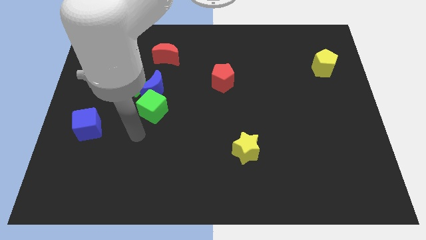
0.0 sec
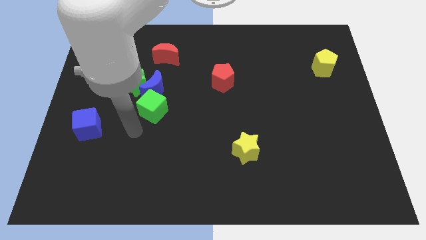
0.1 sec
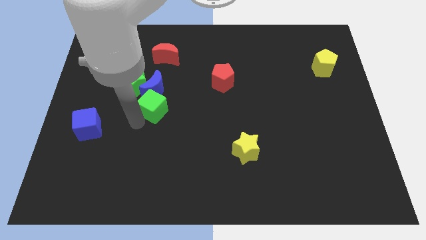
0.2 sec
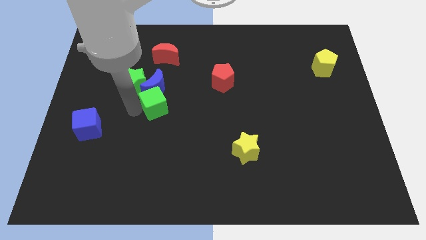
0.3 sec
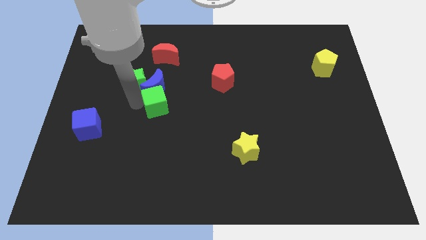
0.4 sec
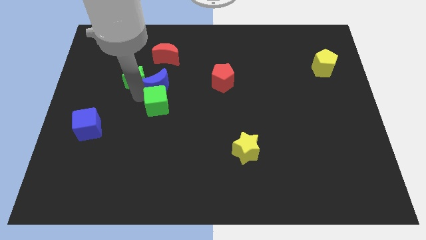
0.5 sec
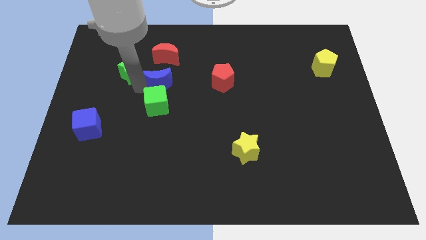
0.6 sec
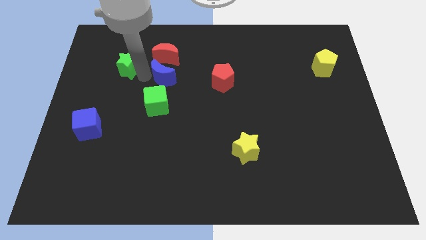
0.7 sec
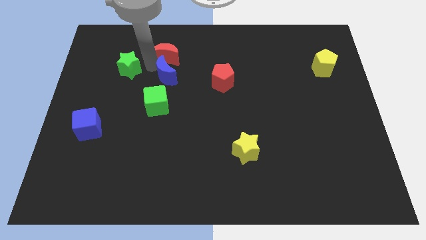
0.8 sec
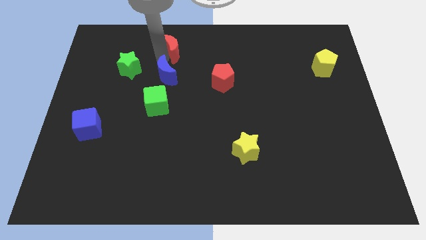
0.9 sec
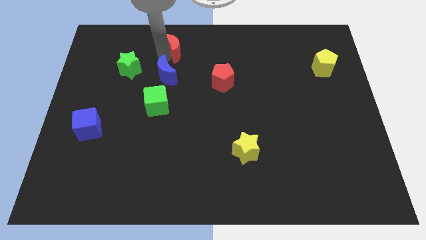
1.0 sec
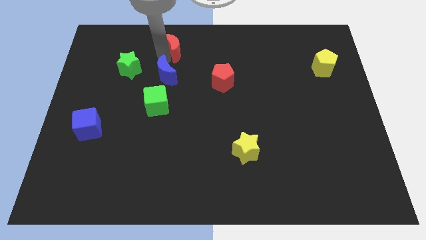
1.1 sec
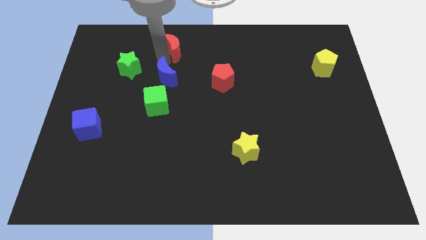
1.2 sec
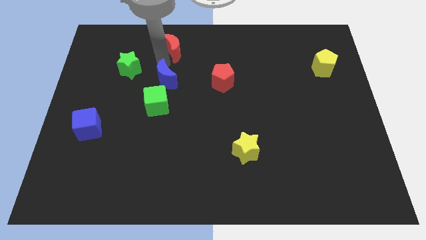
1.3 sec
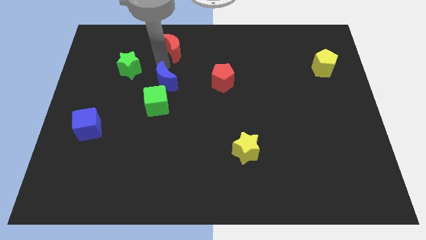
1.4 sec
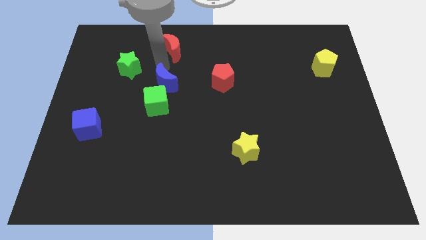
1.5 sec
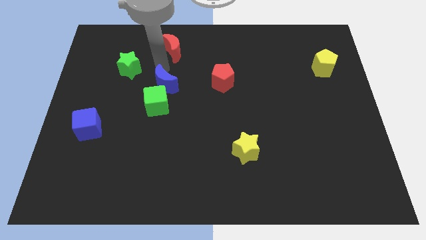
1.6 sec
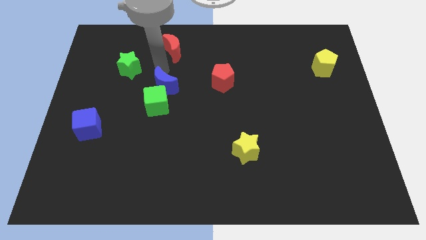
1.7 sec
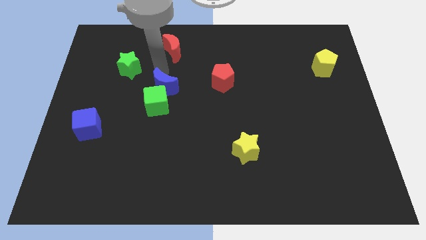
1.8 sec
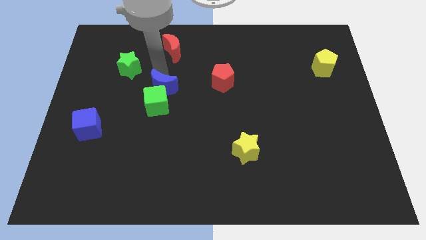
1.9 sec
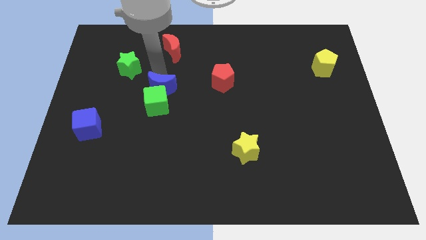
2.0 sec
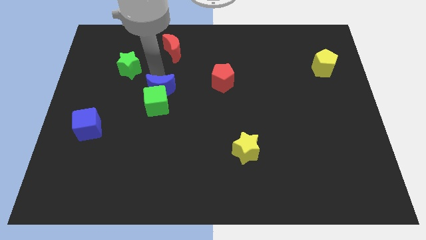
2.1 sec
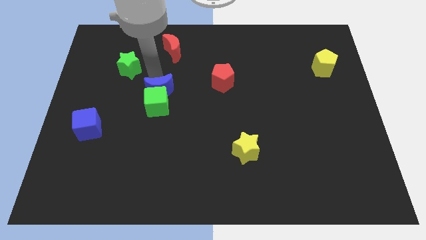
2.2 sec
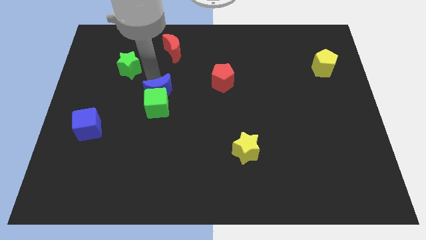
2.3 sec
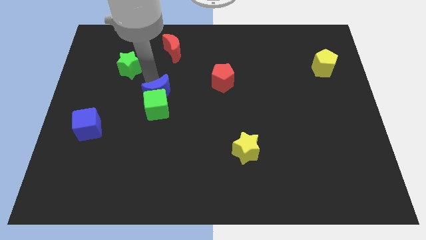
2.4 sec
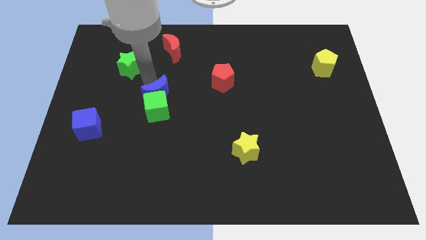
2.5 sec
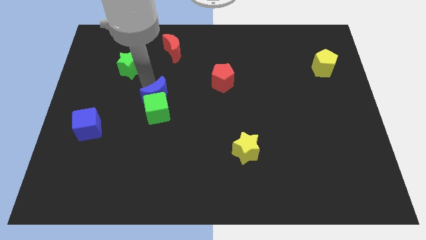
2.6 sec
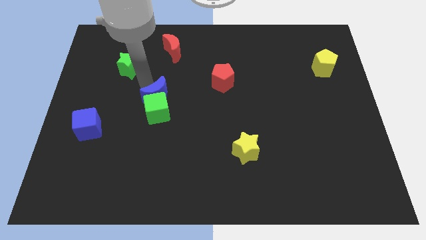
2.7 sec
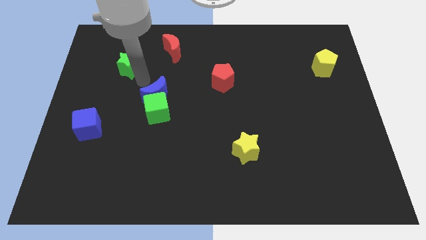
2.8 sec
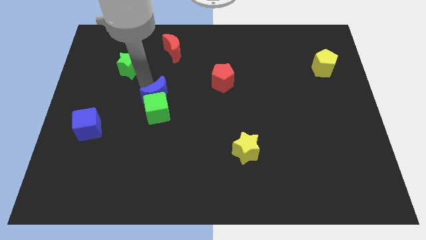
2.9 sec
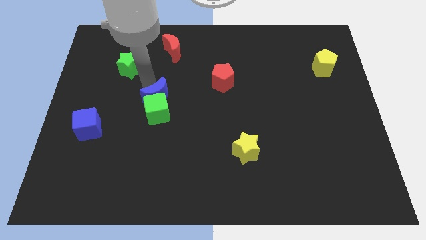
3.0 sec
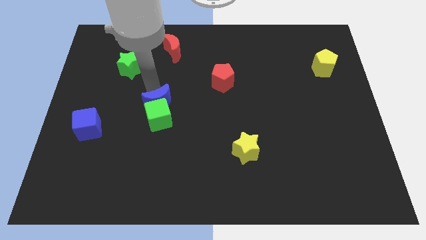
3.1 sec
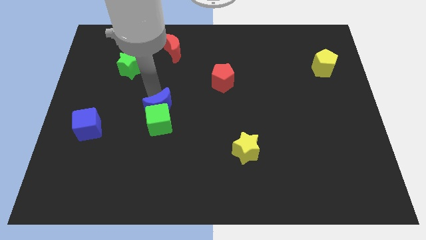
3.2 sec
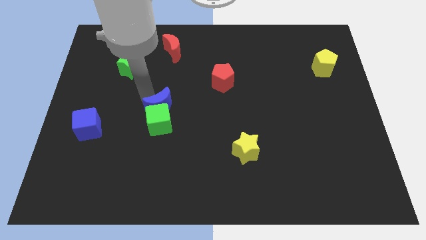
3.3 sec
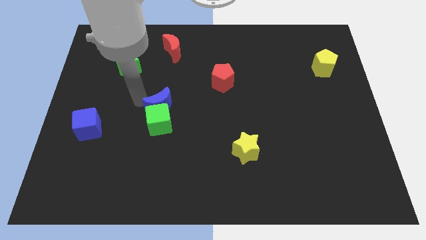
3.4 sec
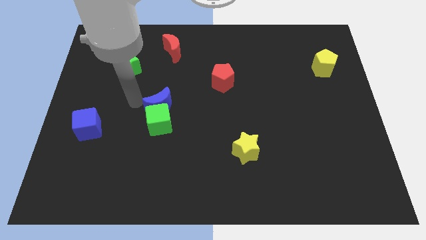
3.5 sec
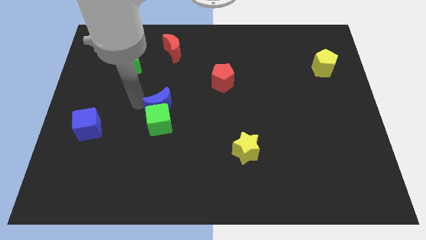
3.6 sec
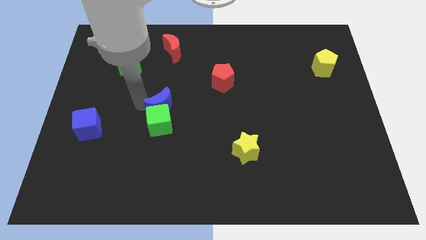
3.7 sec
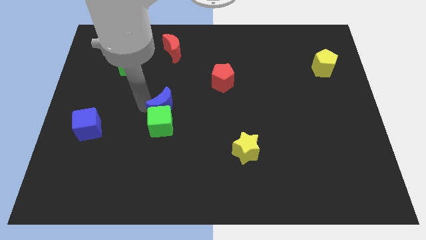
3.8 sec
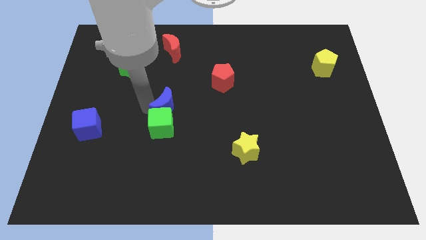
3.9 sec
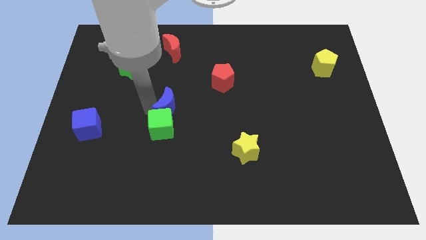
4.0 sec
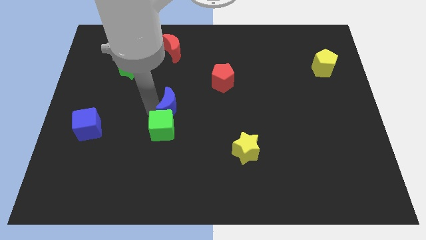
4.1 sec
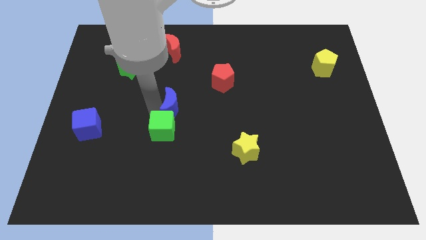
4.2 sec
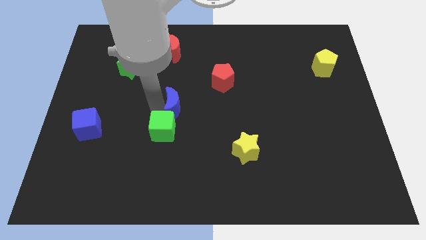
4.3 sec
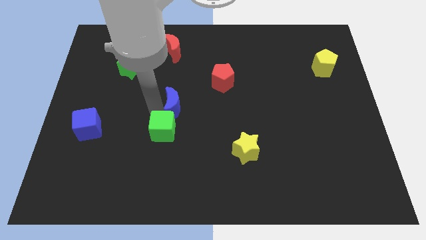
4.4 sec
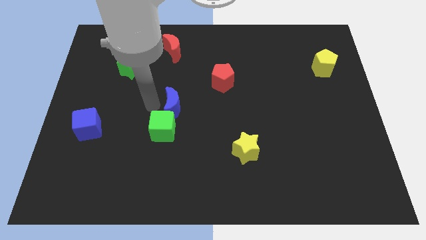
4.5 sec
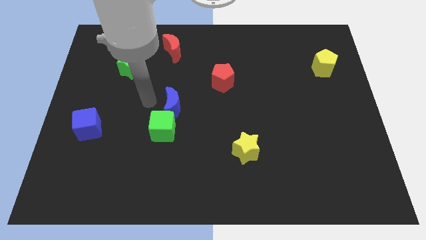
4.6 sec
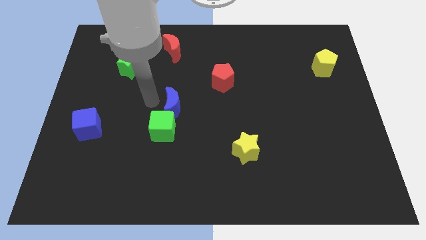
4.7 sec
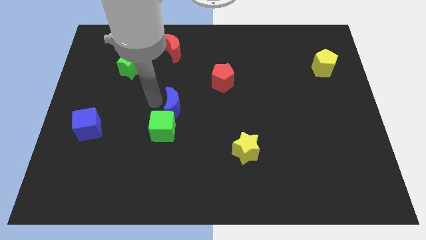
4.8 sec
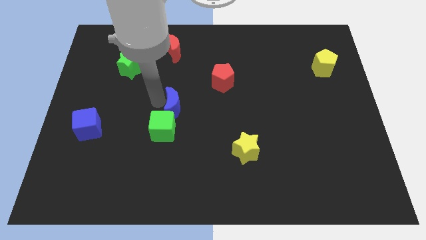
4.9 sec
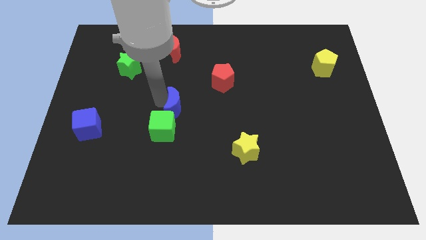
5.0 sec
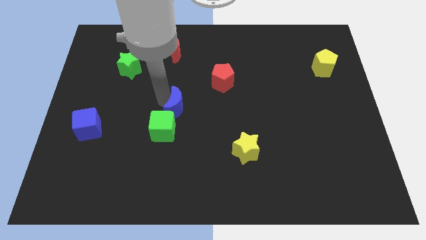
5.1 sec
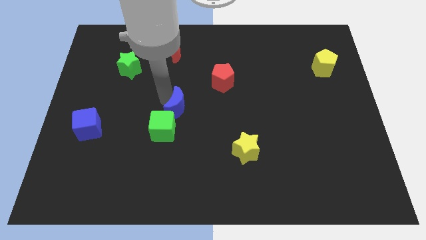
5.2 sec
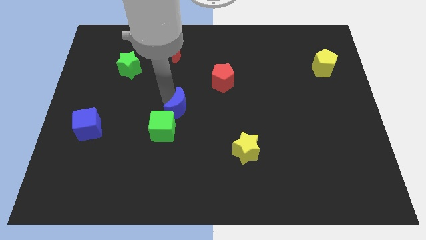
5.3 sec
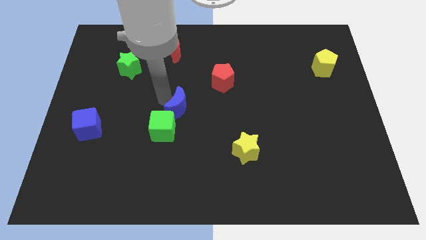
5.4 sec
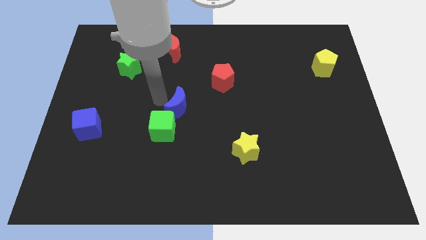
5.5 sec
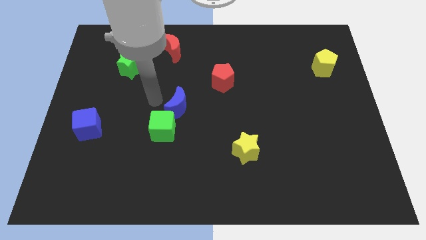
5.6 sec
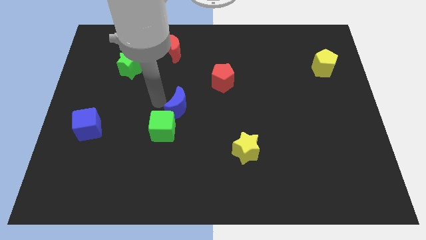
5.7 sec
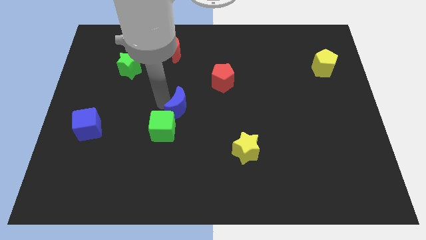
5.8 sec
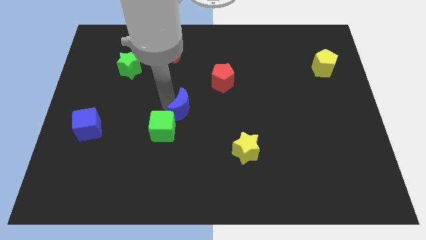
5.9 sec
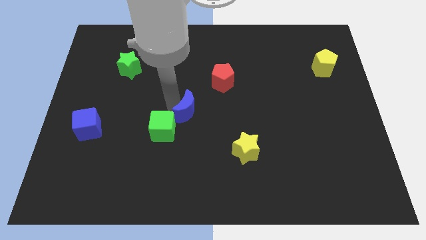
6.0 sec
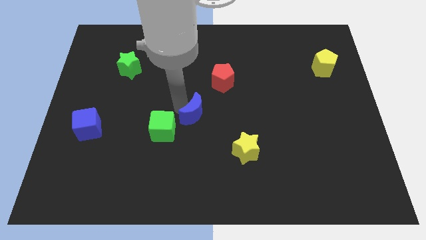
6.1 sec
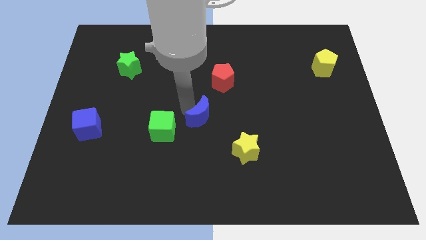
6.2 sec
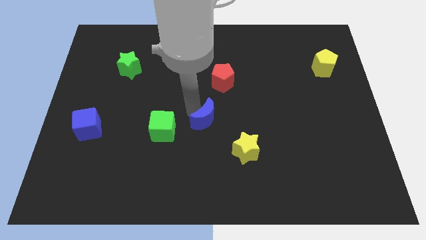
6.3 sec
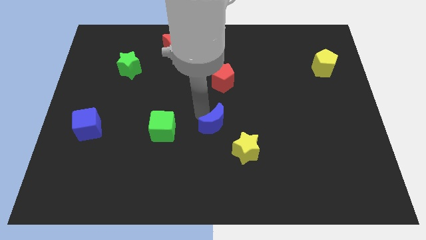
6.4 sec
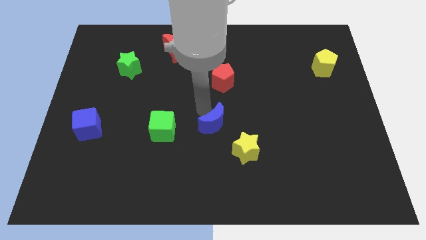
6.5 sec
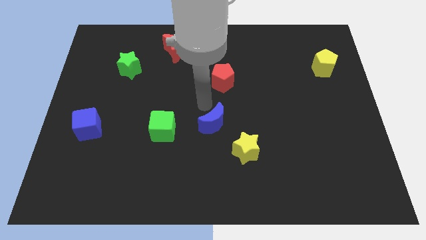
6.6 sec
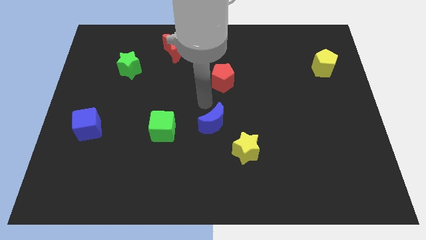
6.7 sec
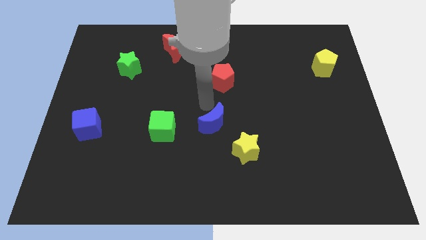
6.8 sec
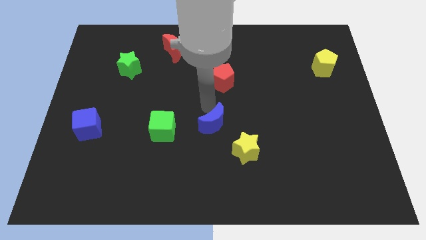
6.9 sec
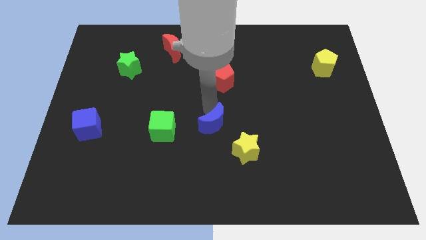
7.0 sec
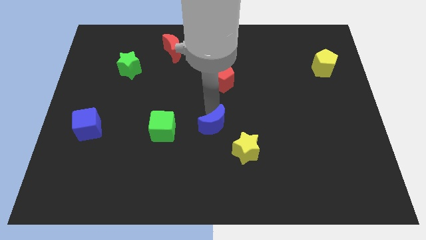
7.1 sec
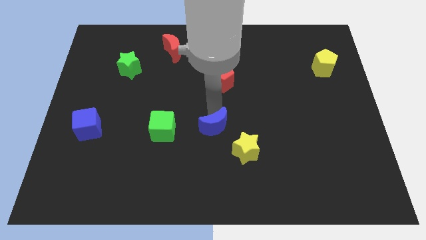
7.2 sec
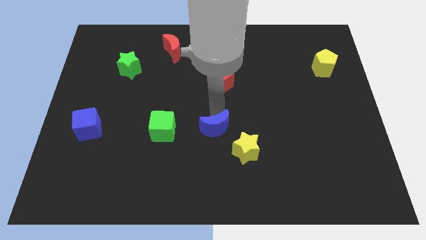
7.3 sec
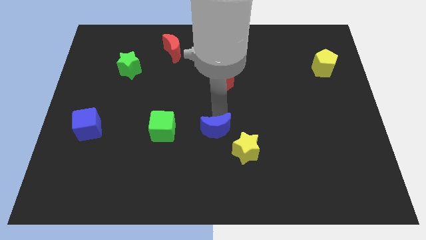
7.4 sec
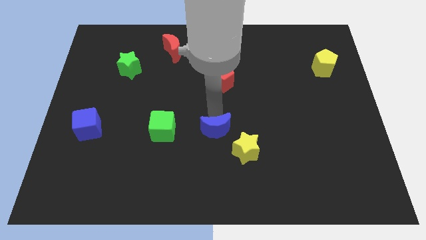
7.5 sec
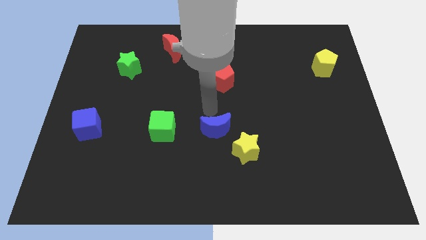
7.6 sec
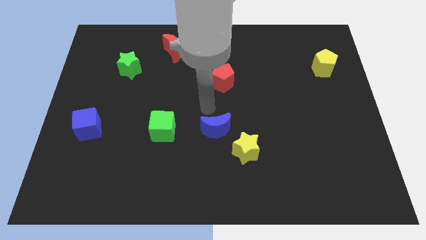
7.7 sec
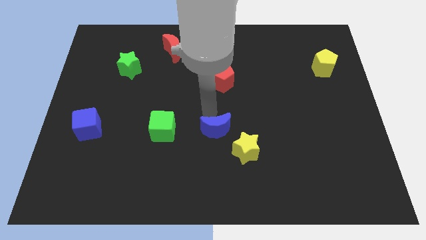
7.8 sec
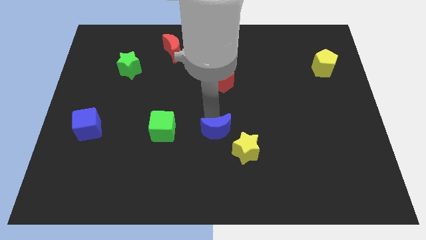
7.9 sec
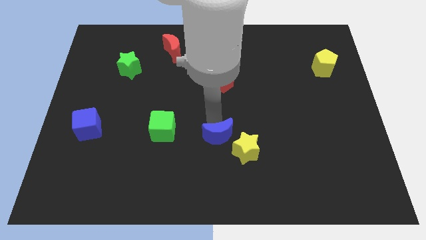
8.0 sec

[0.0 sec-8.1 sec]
push the blue moon down and then right
